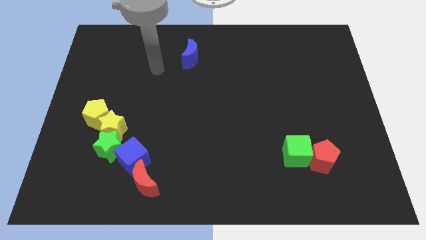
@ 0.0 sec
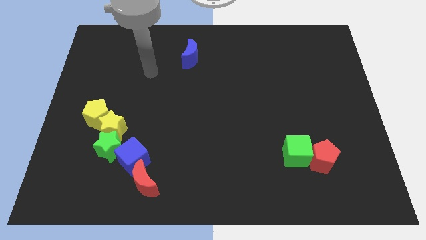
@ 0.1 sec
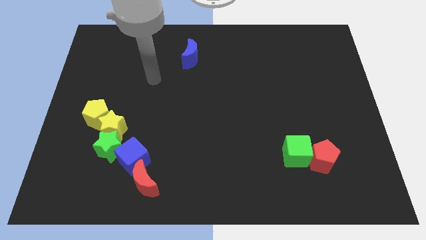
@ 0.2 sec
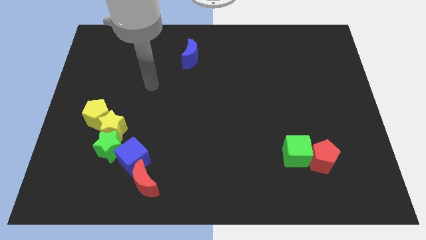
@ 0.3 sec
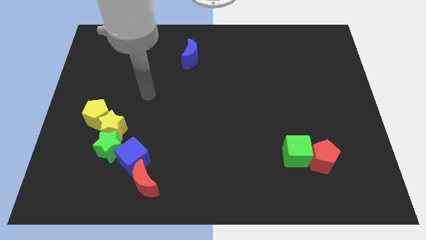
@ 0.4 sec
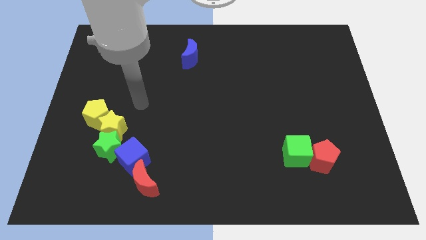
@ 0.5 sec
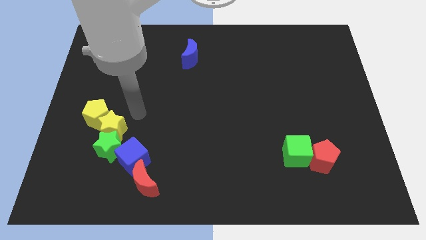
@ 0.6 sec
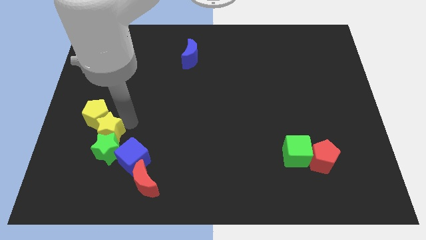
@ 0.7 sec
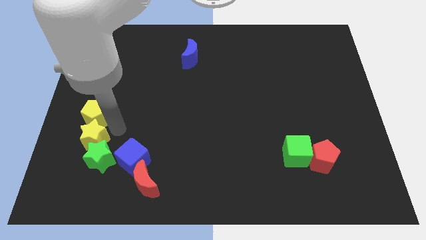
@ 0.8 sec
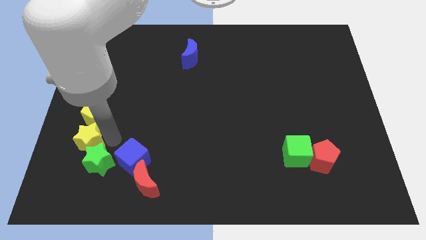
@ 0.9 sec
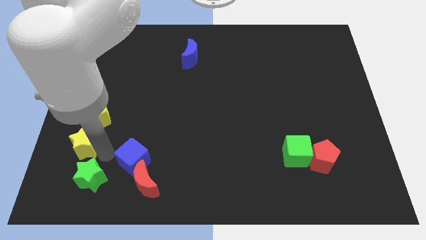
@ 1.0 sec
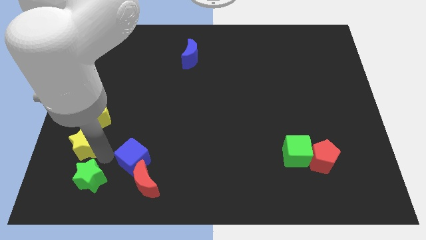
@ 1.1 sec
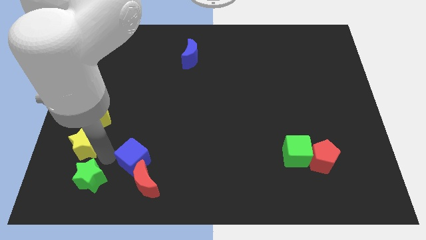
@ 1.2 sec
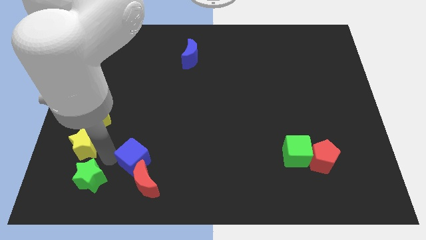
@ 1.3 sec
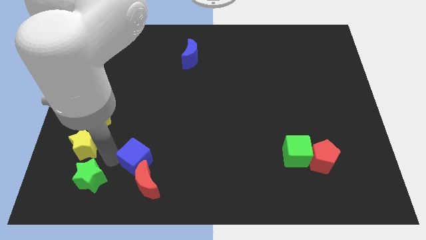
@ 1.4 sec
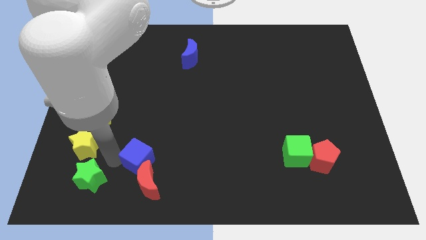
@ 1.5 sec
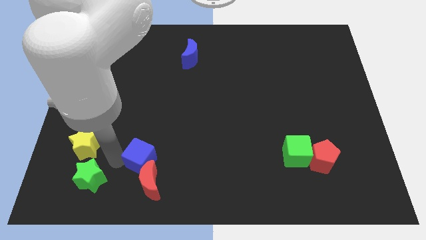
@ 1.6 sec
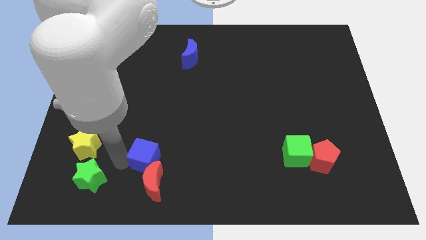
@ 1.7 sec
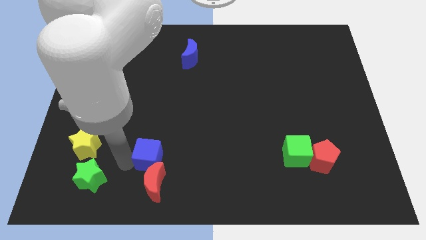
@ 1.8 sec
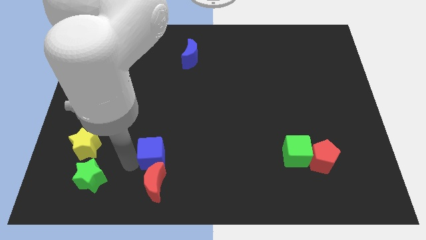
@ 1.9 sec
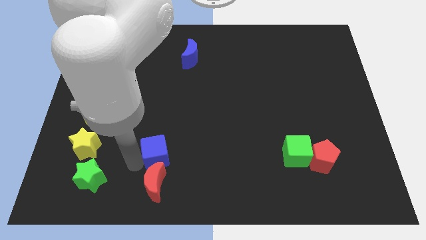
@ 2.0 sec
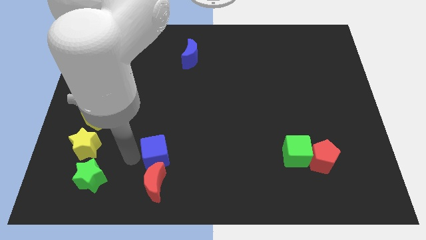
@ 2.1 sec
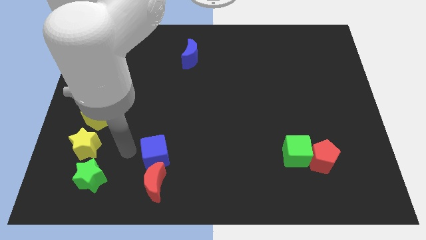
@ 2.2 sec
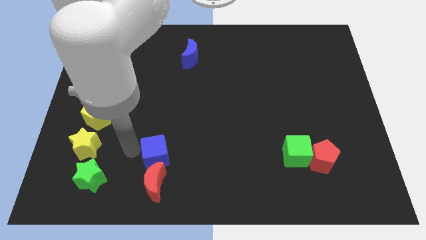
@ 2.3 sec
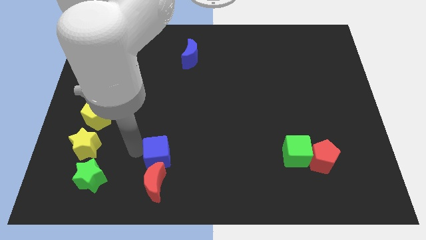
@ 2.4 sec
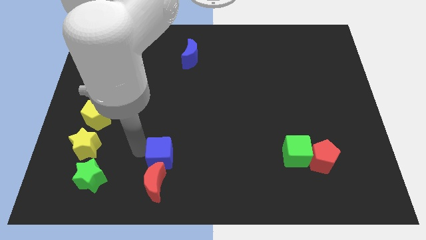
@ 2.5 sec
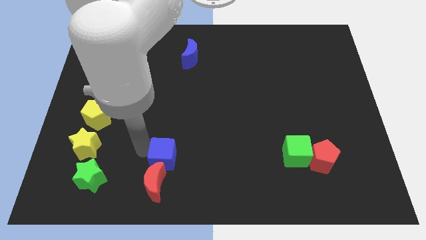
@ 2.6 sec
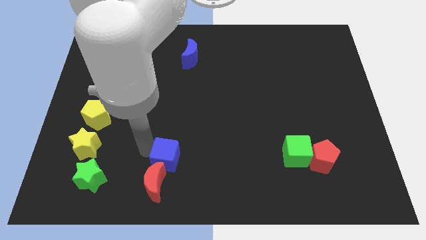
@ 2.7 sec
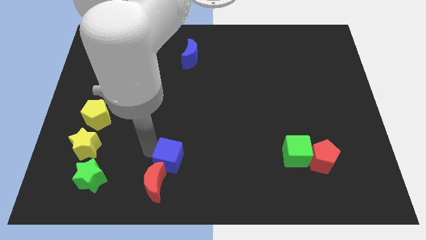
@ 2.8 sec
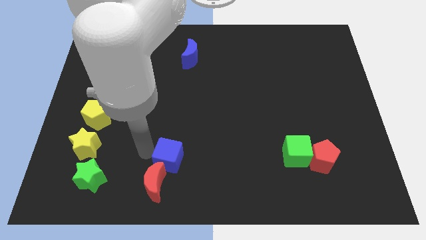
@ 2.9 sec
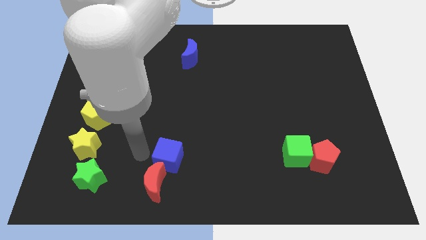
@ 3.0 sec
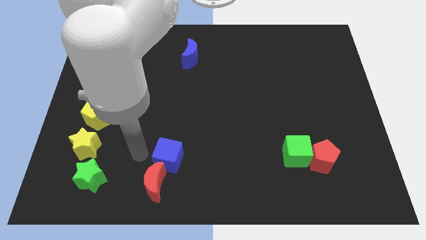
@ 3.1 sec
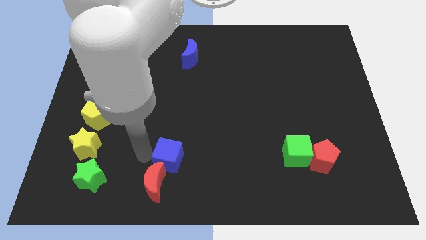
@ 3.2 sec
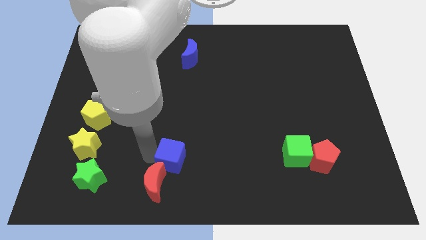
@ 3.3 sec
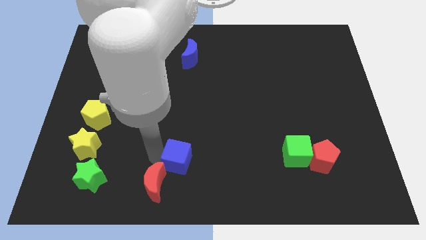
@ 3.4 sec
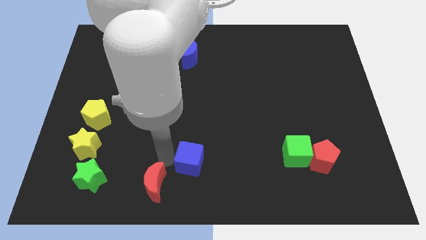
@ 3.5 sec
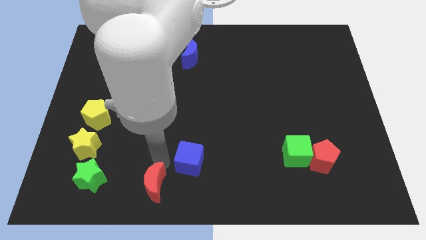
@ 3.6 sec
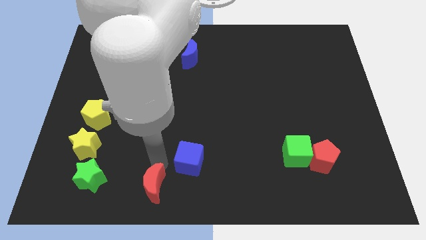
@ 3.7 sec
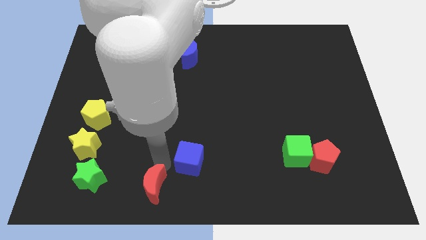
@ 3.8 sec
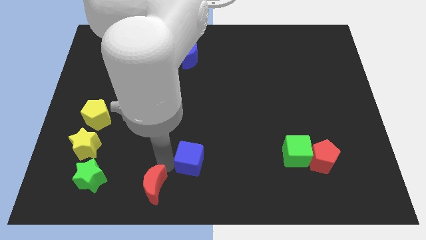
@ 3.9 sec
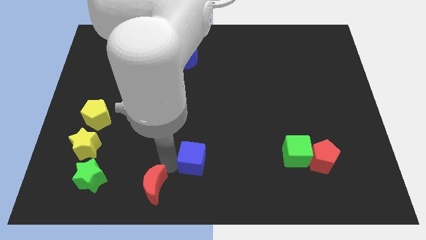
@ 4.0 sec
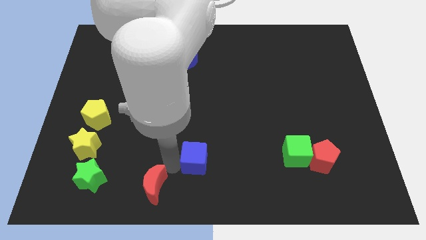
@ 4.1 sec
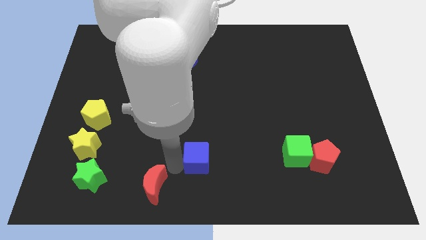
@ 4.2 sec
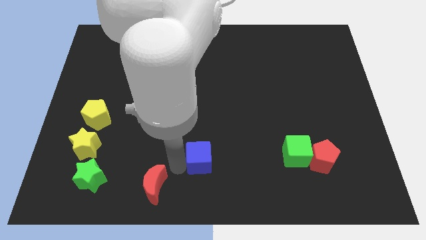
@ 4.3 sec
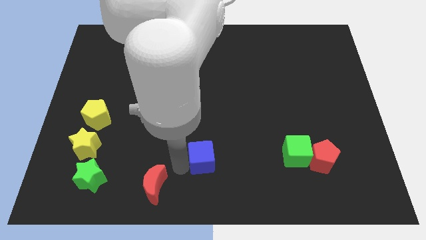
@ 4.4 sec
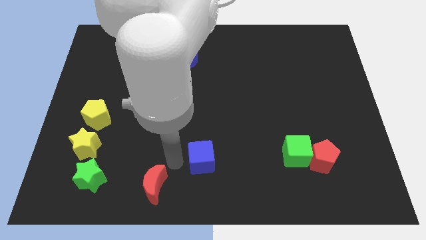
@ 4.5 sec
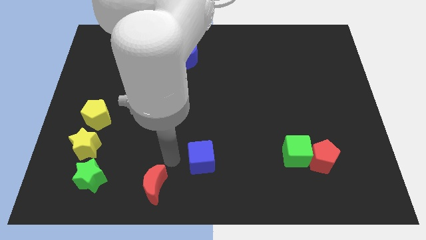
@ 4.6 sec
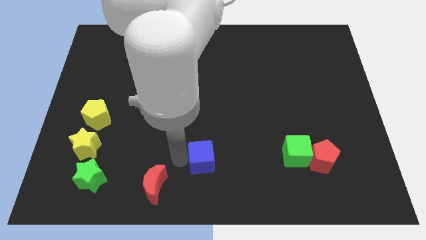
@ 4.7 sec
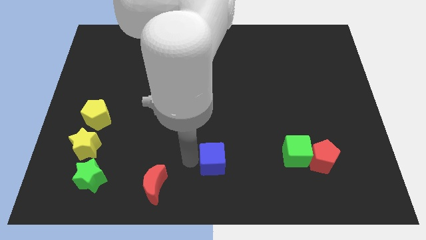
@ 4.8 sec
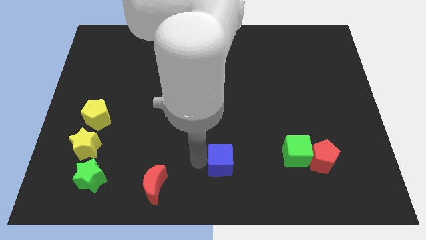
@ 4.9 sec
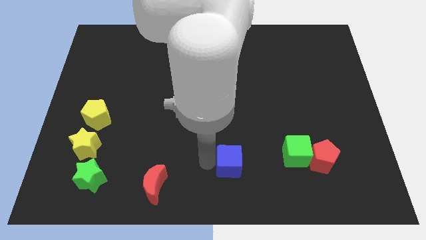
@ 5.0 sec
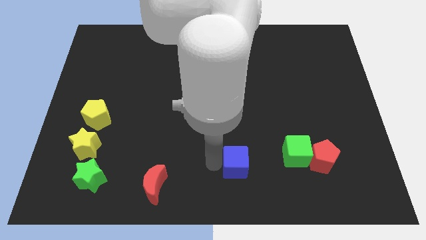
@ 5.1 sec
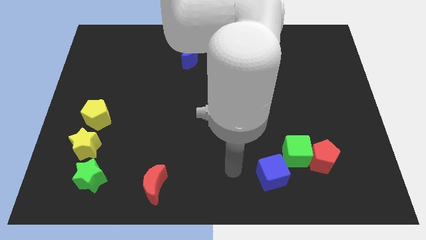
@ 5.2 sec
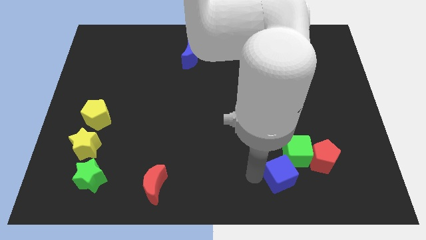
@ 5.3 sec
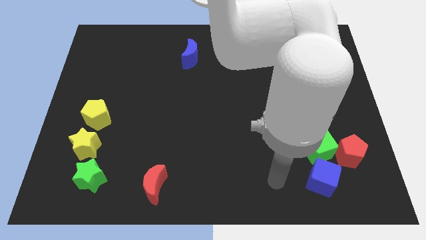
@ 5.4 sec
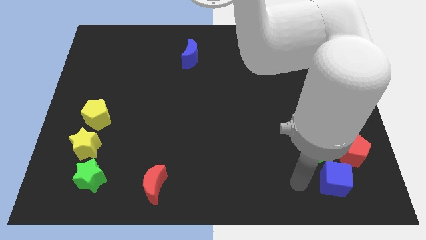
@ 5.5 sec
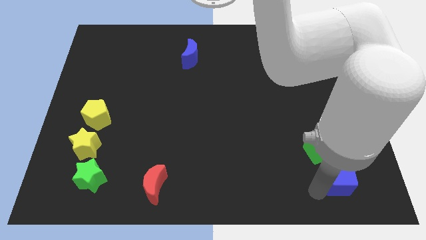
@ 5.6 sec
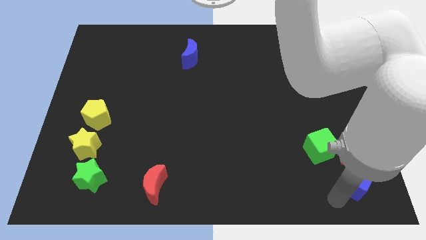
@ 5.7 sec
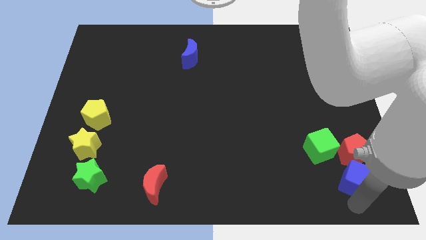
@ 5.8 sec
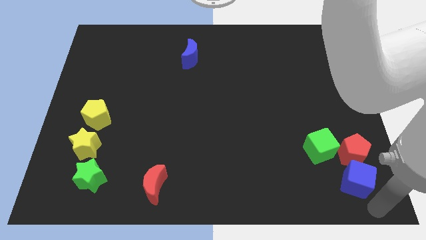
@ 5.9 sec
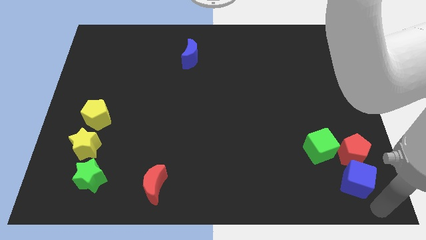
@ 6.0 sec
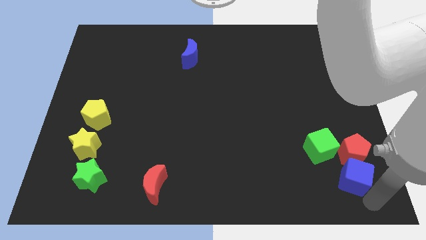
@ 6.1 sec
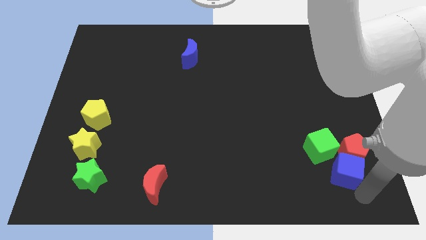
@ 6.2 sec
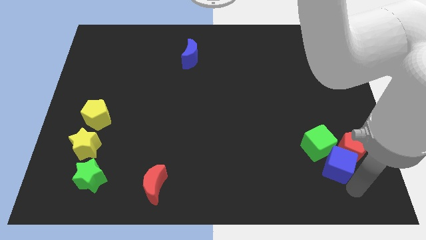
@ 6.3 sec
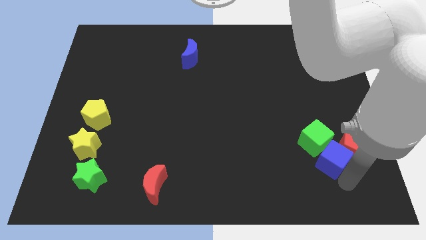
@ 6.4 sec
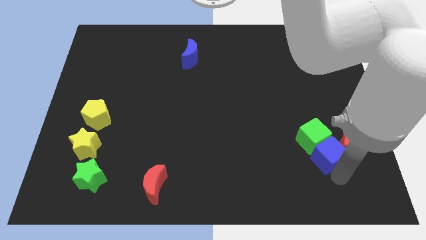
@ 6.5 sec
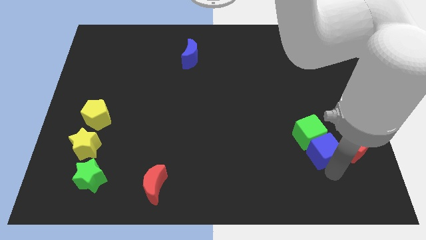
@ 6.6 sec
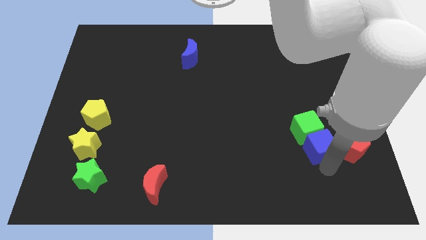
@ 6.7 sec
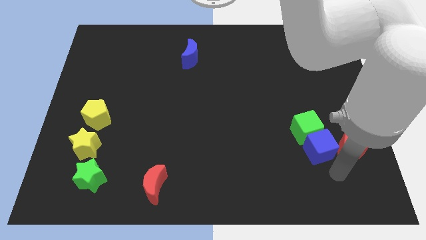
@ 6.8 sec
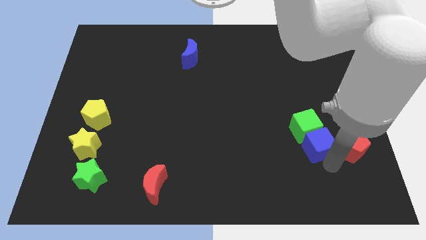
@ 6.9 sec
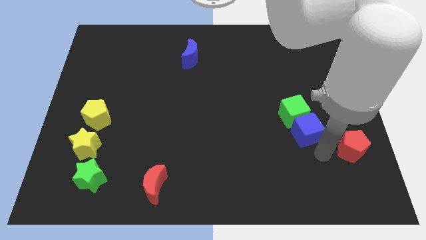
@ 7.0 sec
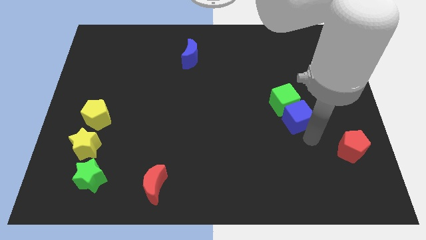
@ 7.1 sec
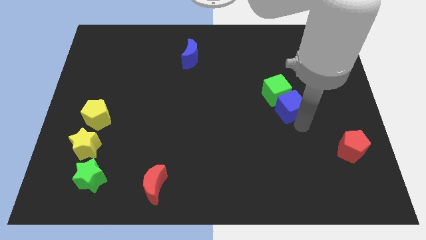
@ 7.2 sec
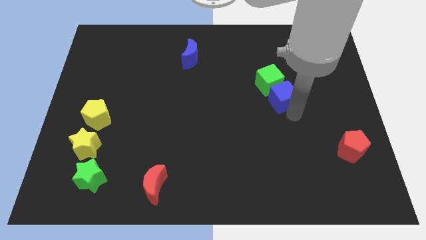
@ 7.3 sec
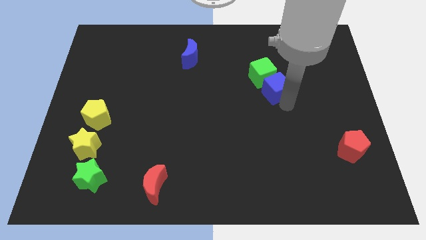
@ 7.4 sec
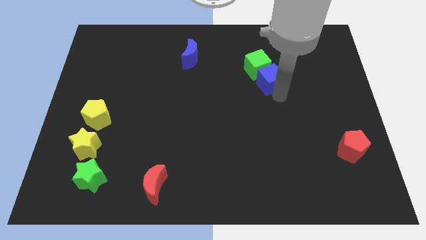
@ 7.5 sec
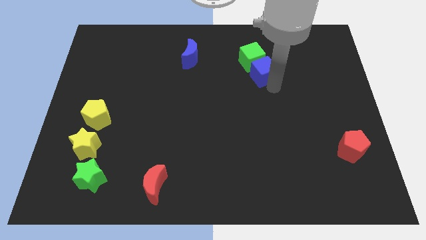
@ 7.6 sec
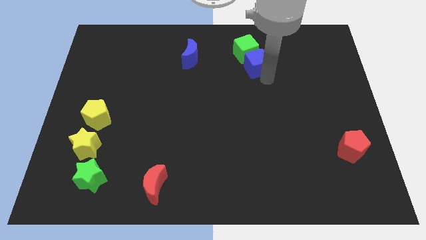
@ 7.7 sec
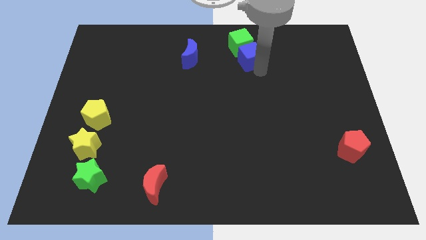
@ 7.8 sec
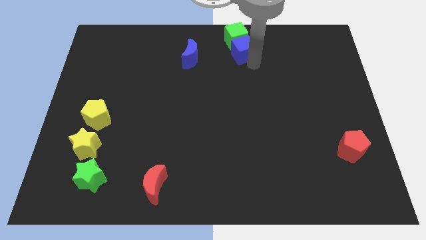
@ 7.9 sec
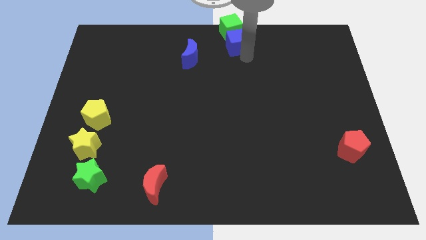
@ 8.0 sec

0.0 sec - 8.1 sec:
slide the blue cube to the top side
